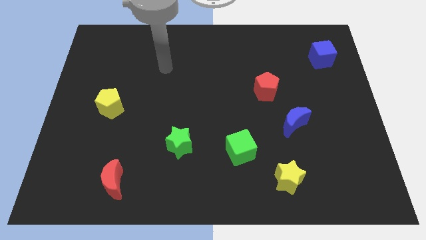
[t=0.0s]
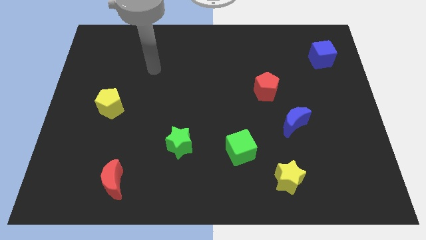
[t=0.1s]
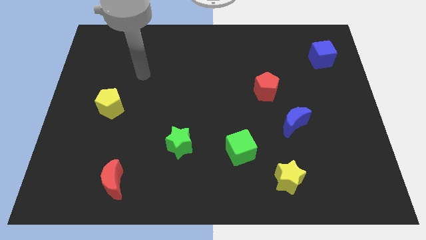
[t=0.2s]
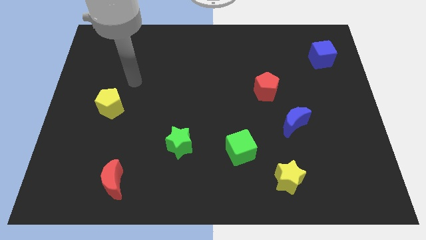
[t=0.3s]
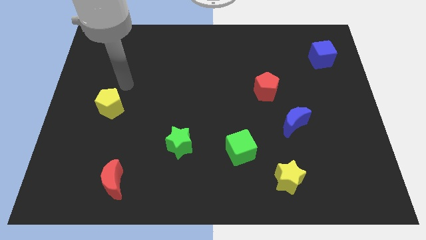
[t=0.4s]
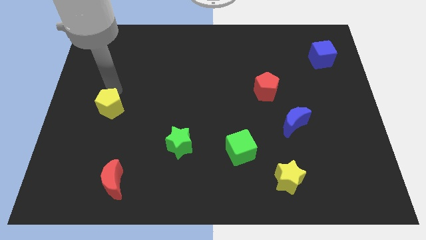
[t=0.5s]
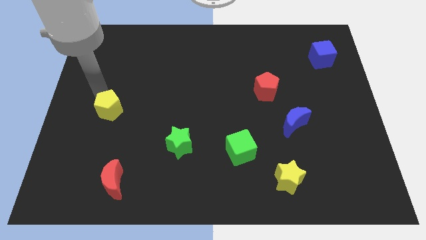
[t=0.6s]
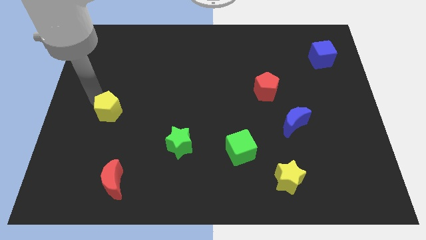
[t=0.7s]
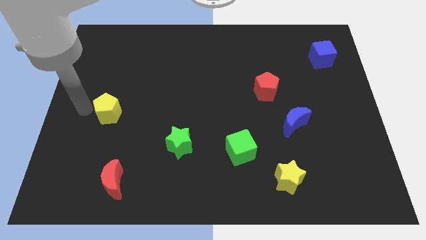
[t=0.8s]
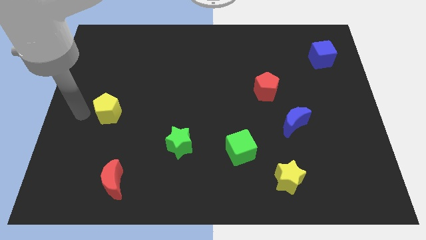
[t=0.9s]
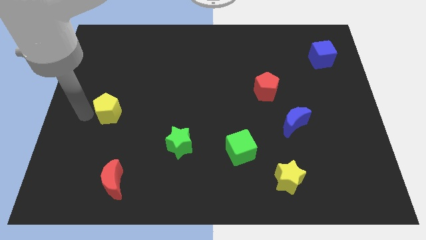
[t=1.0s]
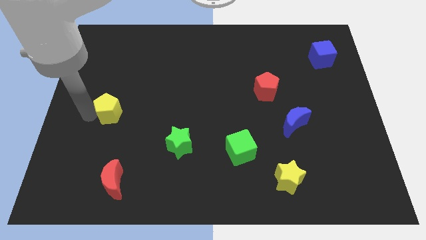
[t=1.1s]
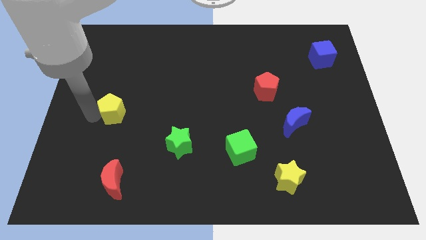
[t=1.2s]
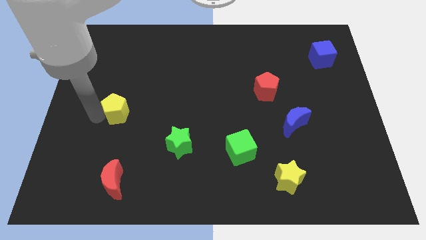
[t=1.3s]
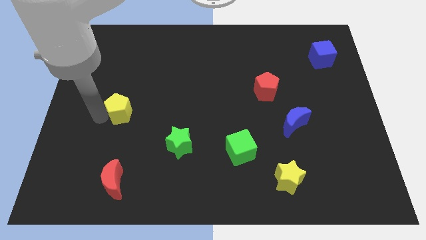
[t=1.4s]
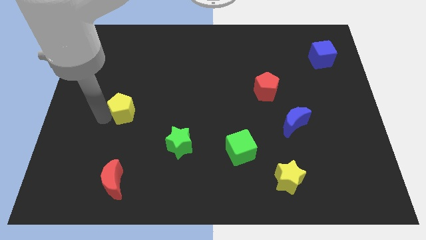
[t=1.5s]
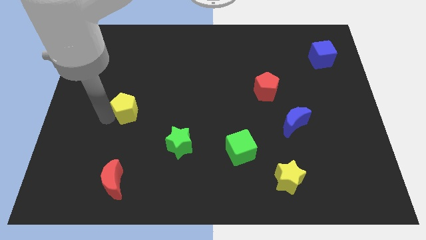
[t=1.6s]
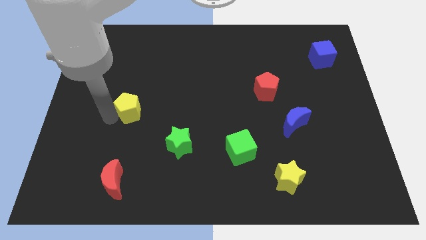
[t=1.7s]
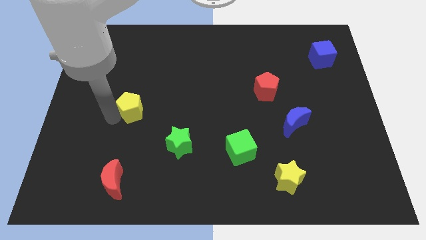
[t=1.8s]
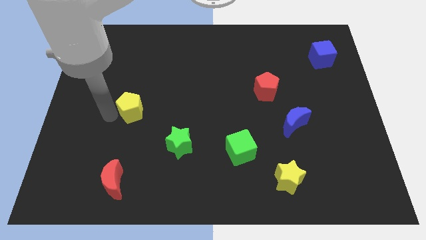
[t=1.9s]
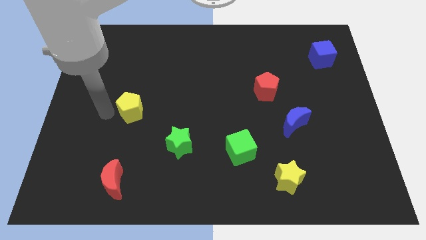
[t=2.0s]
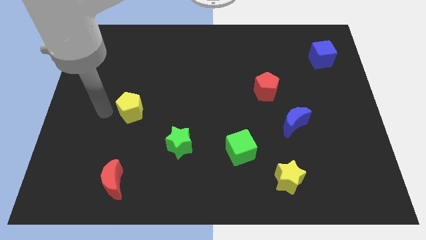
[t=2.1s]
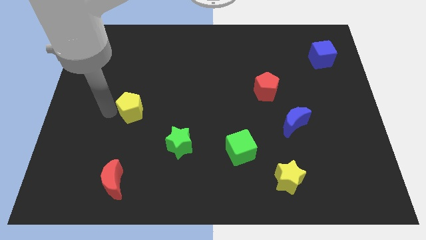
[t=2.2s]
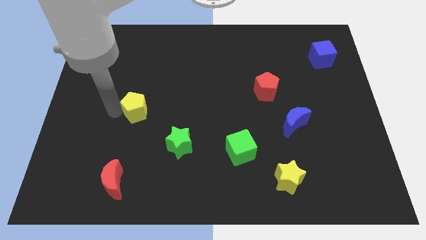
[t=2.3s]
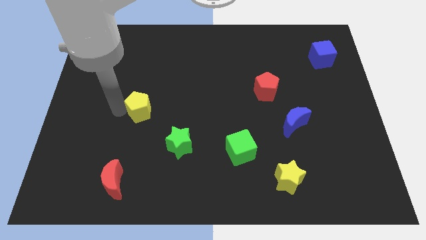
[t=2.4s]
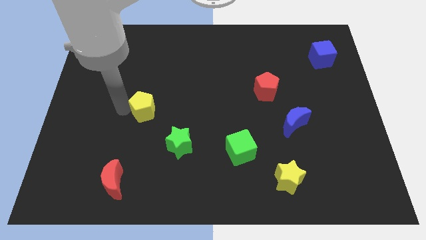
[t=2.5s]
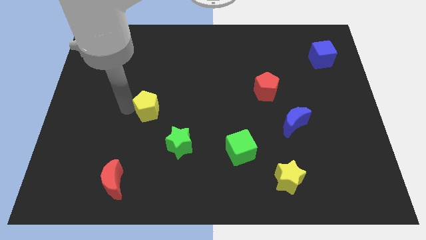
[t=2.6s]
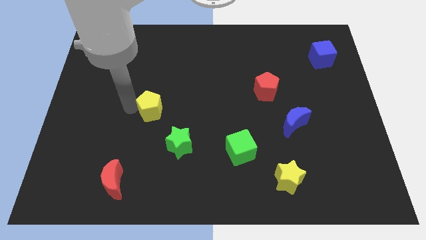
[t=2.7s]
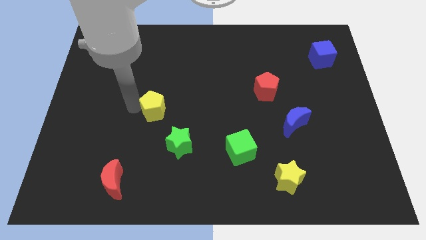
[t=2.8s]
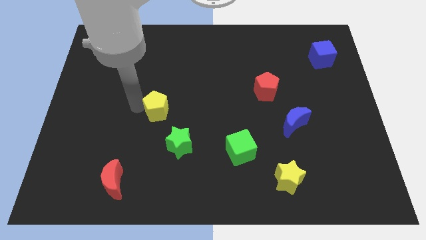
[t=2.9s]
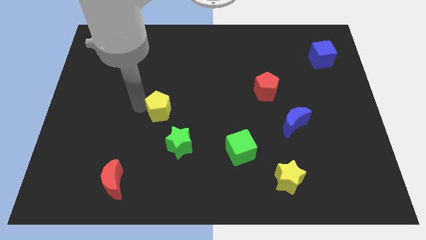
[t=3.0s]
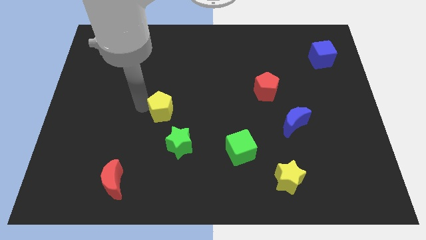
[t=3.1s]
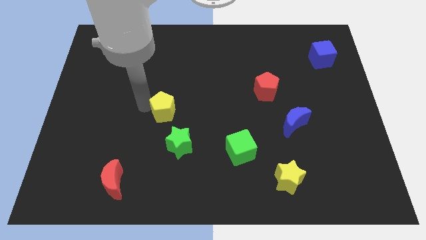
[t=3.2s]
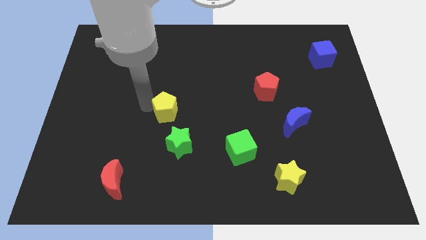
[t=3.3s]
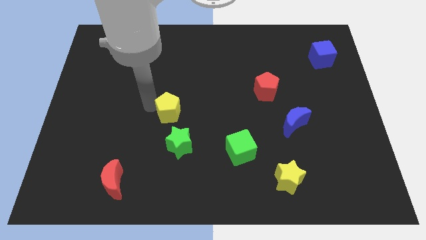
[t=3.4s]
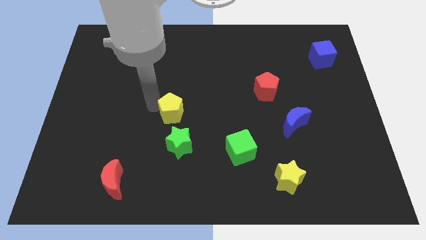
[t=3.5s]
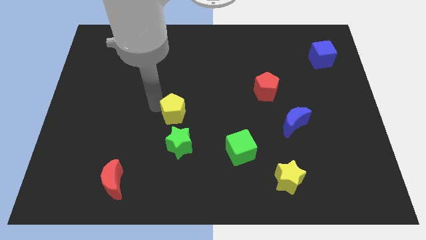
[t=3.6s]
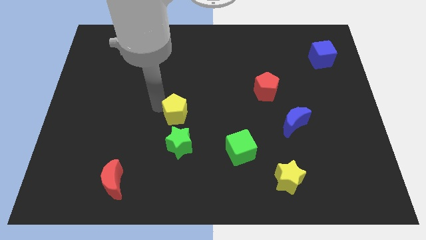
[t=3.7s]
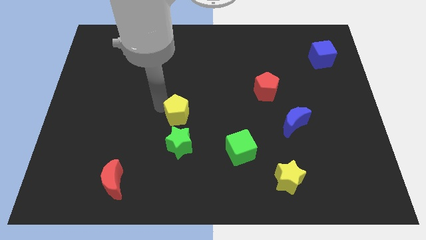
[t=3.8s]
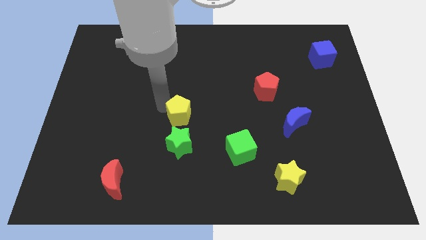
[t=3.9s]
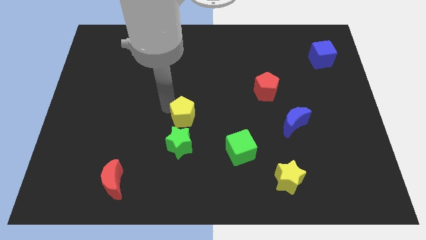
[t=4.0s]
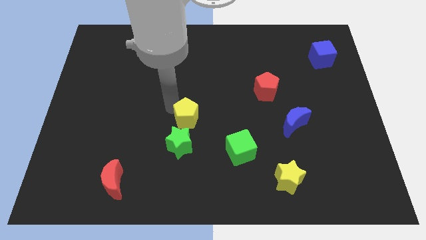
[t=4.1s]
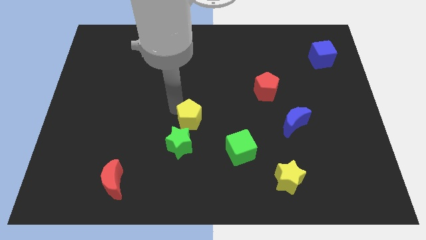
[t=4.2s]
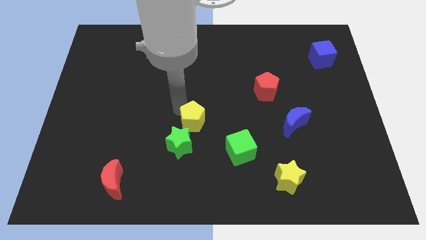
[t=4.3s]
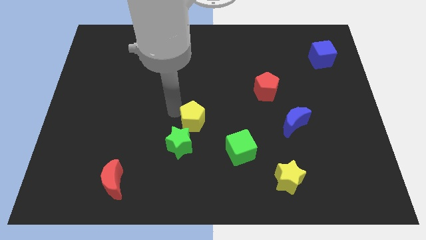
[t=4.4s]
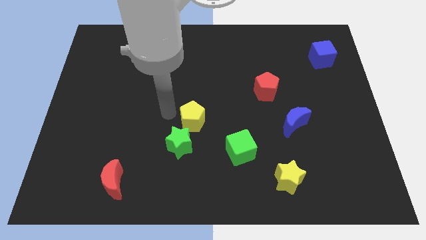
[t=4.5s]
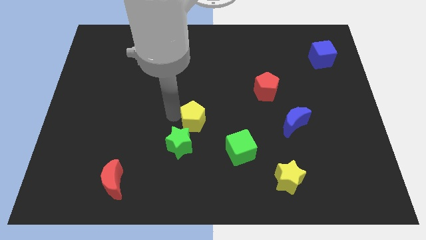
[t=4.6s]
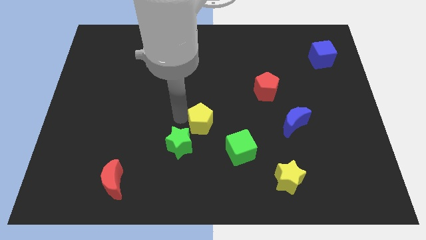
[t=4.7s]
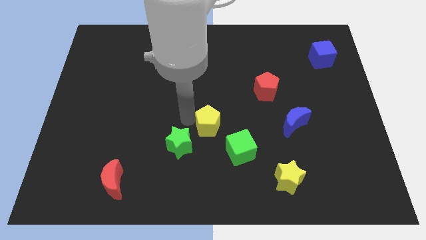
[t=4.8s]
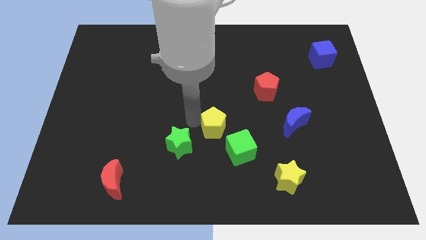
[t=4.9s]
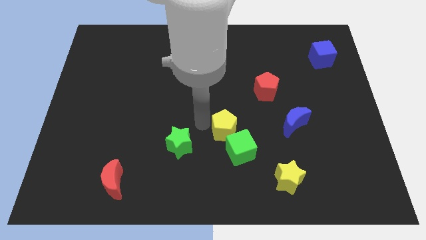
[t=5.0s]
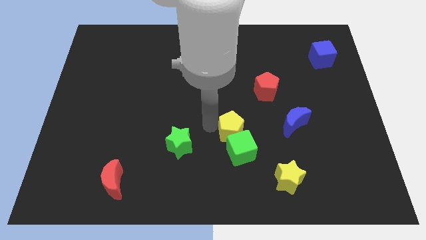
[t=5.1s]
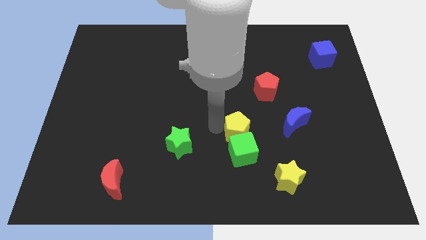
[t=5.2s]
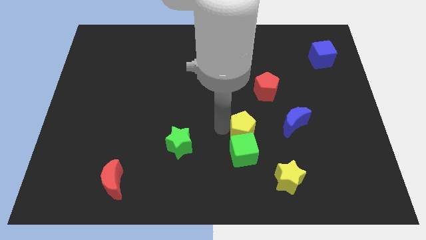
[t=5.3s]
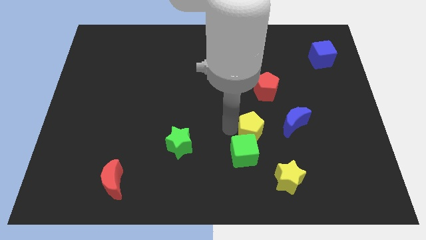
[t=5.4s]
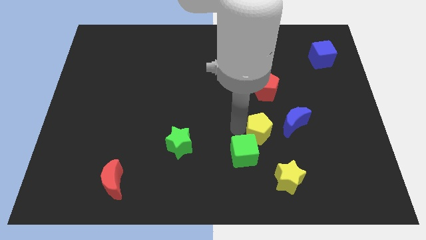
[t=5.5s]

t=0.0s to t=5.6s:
move the yellow pentagon to the bottom left of the blue moon

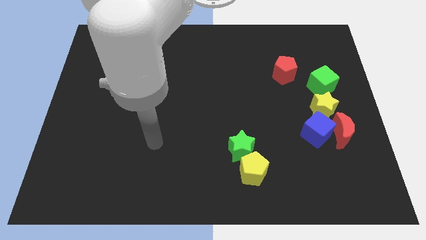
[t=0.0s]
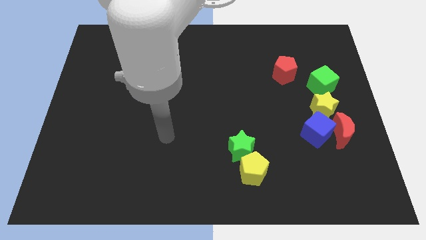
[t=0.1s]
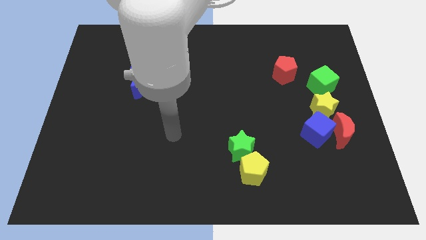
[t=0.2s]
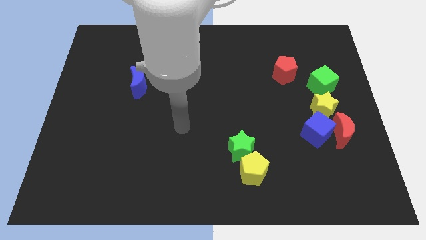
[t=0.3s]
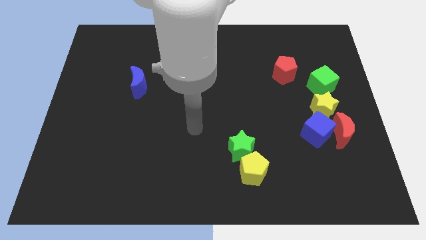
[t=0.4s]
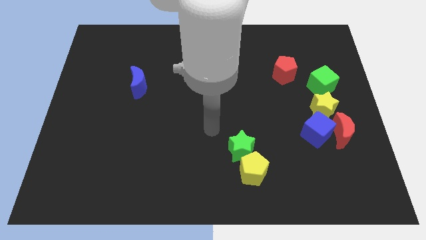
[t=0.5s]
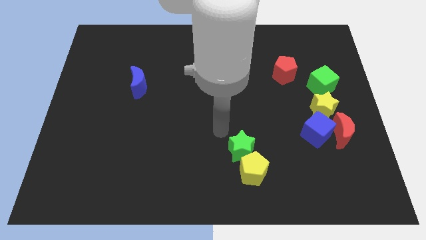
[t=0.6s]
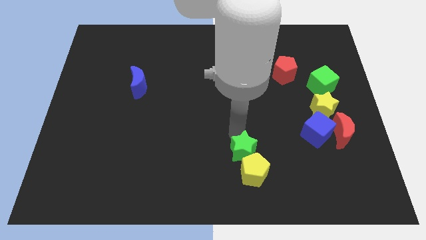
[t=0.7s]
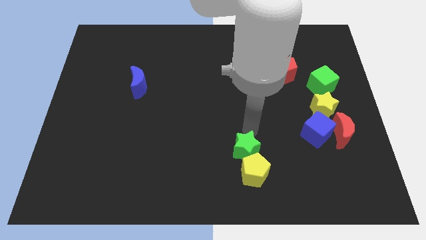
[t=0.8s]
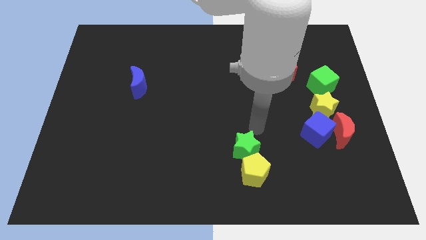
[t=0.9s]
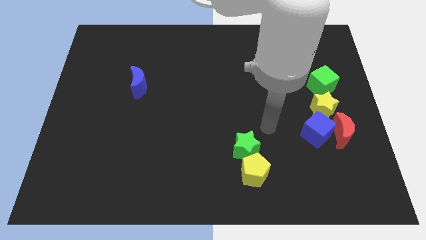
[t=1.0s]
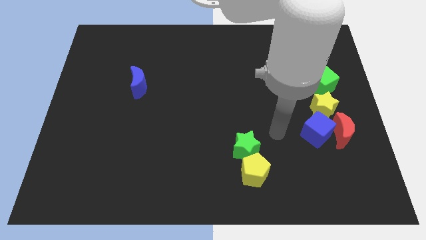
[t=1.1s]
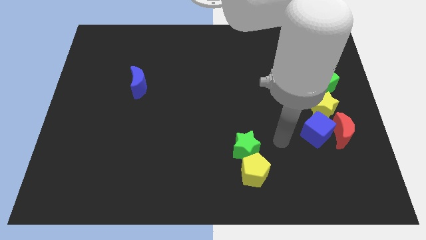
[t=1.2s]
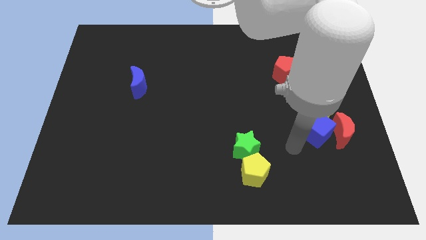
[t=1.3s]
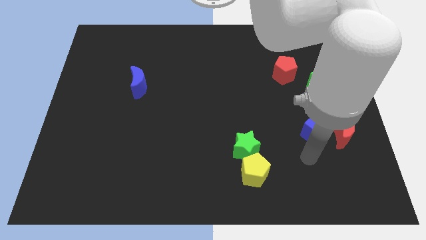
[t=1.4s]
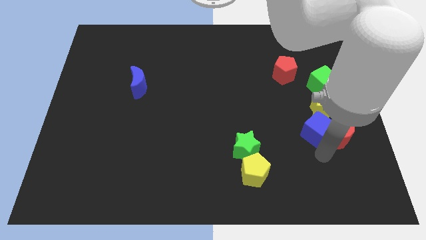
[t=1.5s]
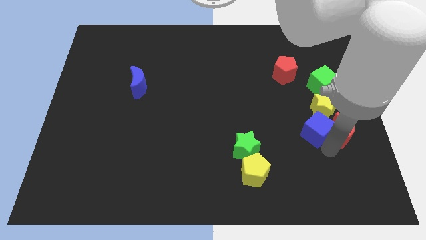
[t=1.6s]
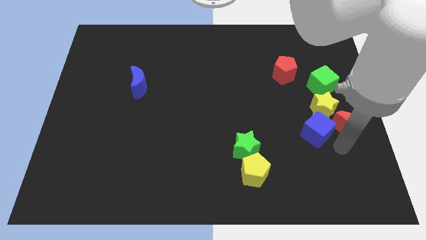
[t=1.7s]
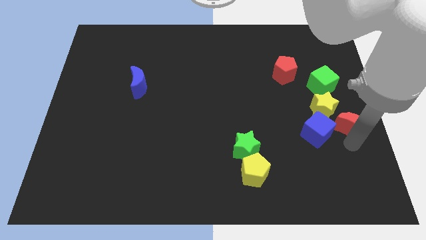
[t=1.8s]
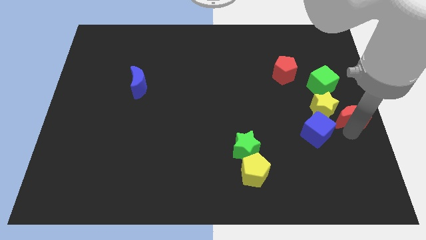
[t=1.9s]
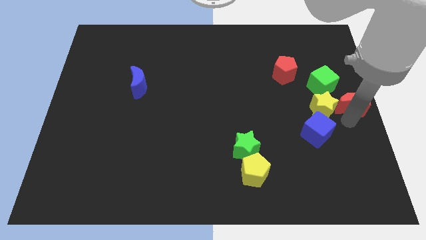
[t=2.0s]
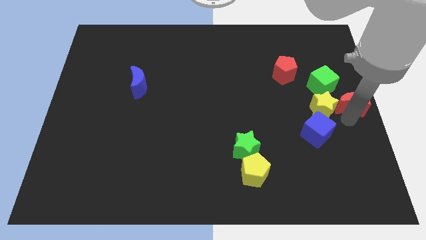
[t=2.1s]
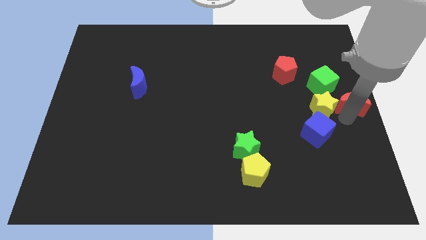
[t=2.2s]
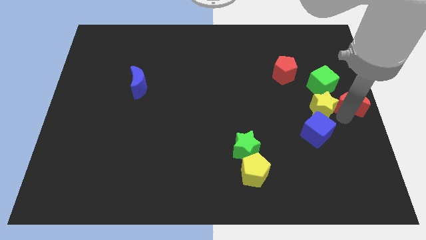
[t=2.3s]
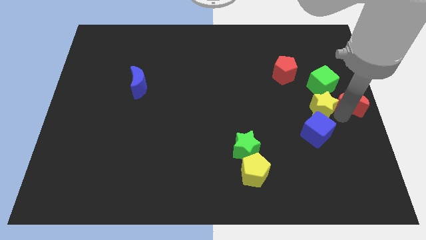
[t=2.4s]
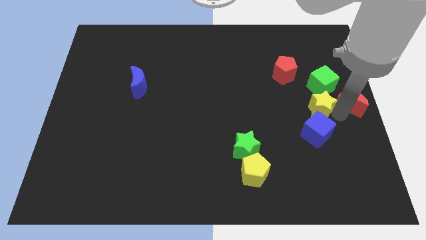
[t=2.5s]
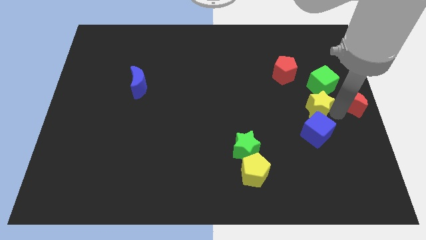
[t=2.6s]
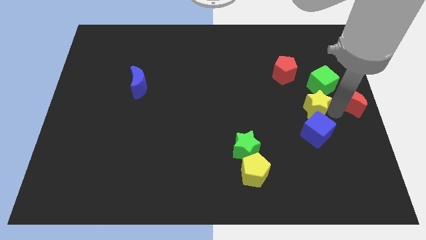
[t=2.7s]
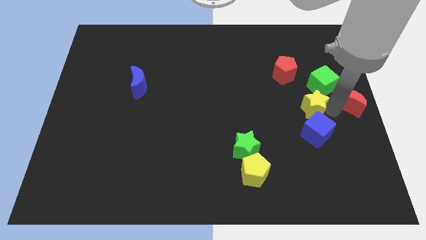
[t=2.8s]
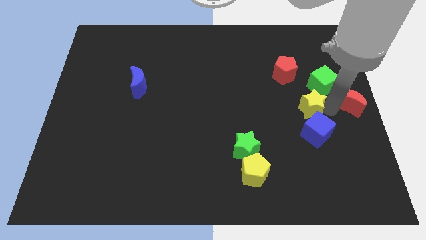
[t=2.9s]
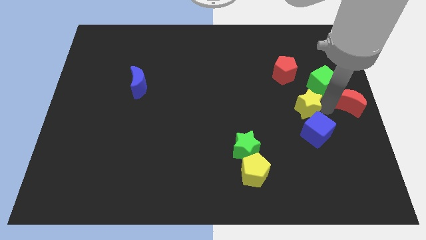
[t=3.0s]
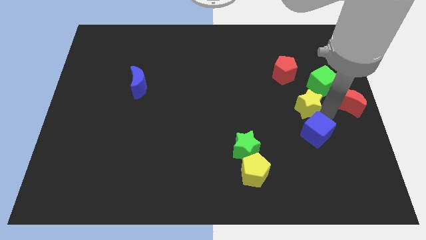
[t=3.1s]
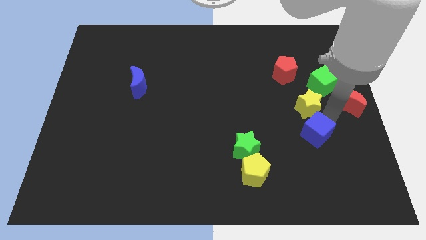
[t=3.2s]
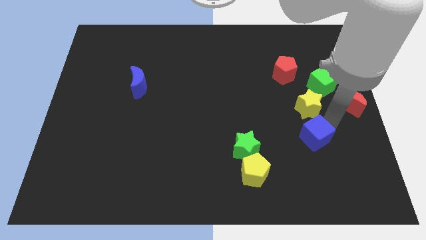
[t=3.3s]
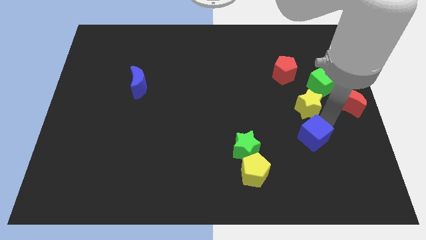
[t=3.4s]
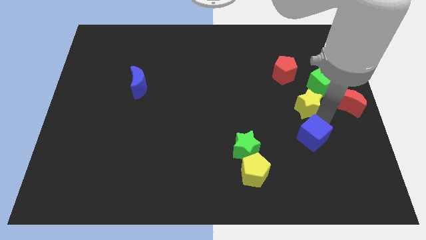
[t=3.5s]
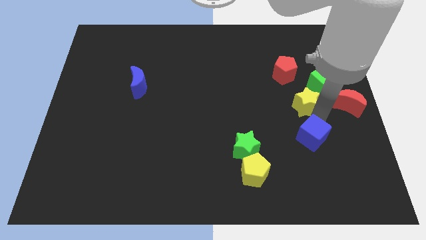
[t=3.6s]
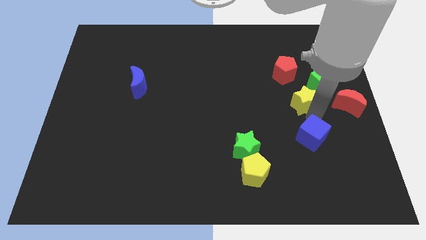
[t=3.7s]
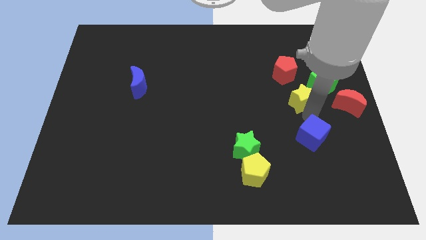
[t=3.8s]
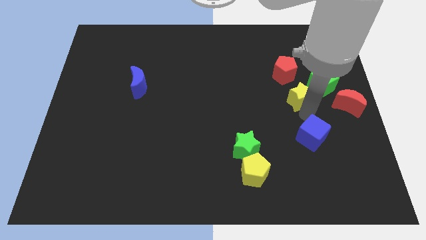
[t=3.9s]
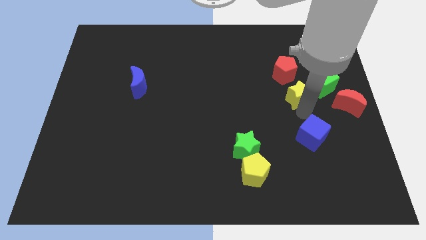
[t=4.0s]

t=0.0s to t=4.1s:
push the yellow star just left of the green cube
